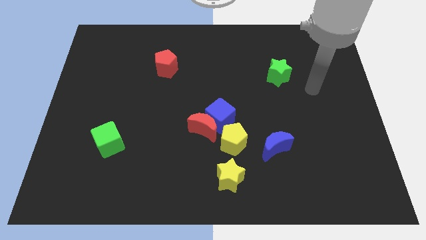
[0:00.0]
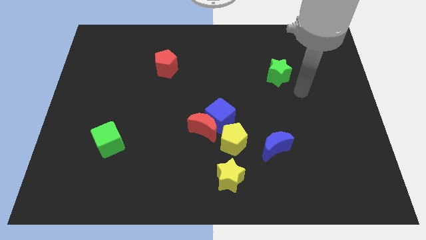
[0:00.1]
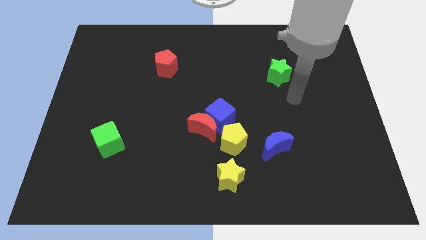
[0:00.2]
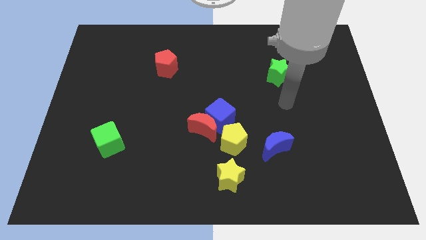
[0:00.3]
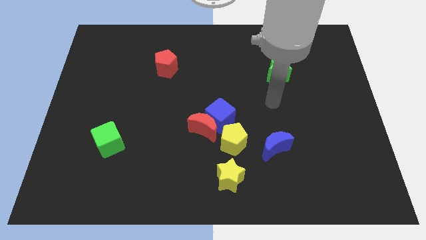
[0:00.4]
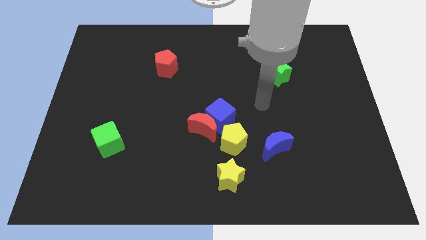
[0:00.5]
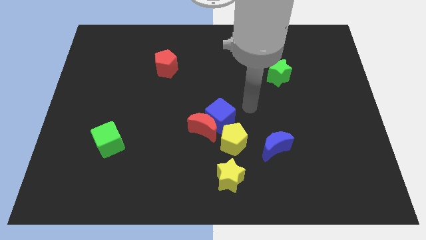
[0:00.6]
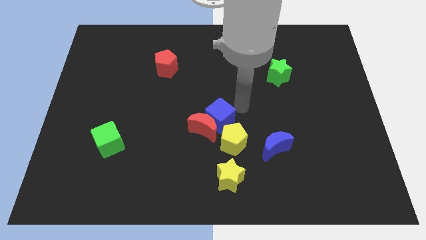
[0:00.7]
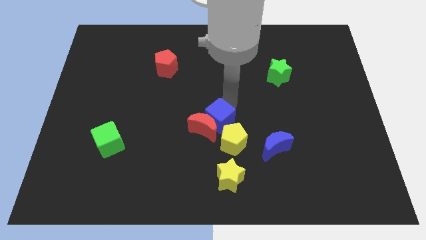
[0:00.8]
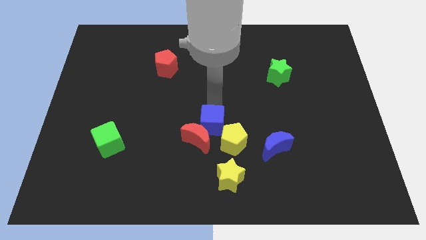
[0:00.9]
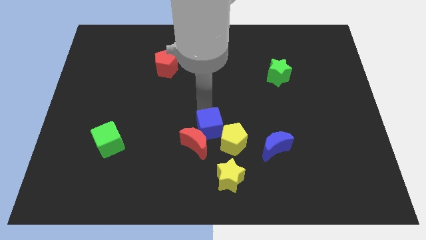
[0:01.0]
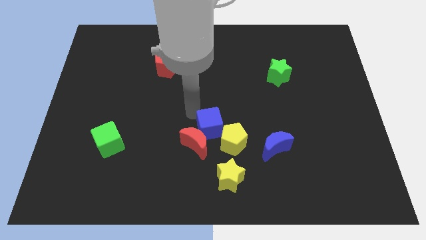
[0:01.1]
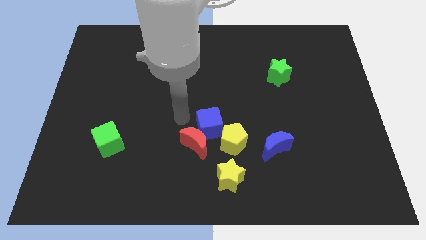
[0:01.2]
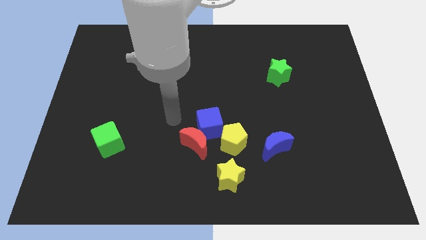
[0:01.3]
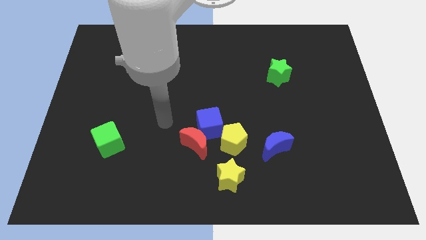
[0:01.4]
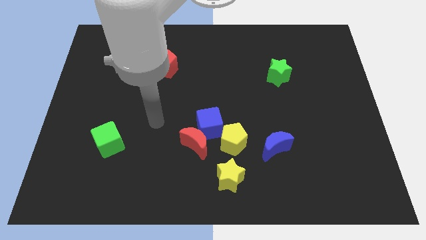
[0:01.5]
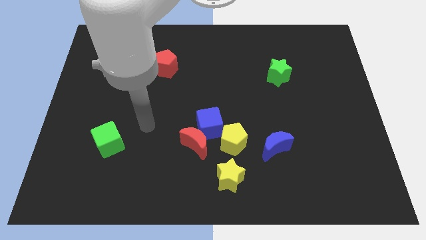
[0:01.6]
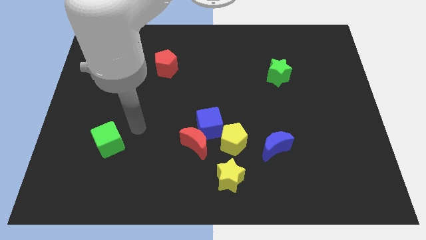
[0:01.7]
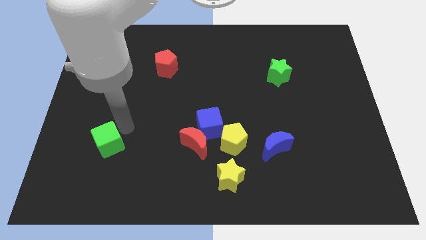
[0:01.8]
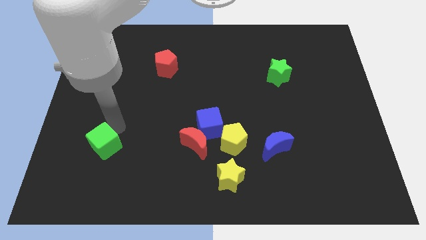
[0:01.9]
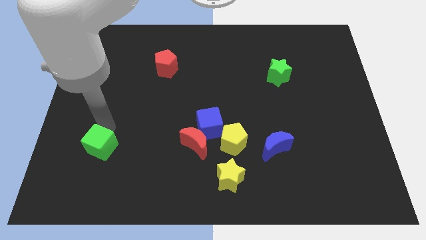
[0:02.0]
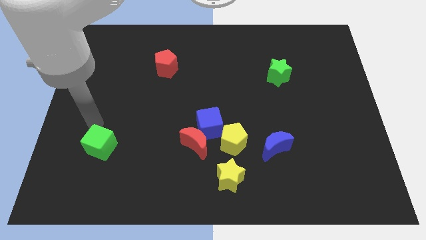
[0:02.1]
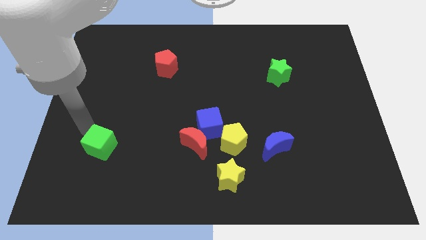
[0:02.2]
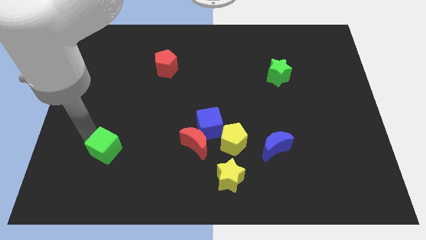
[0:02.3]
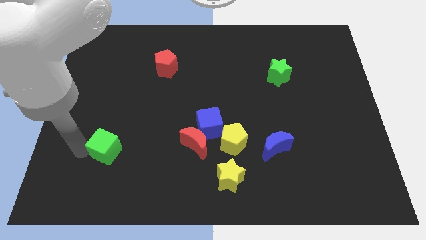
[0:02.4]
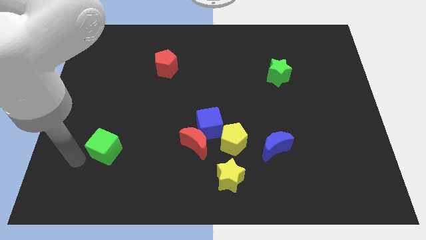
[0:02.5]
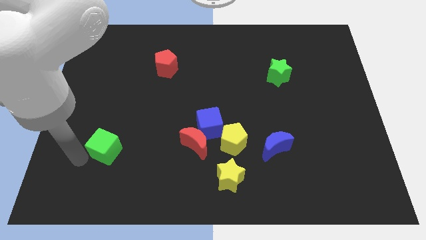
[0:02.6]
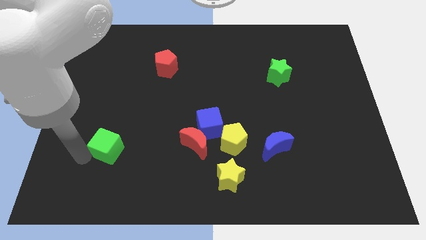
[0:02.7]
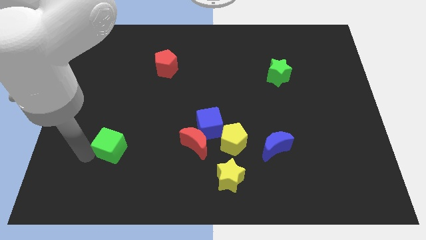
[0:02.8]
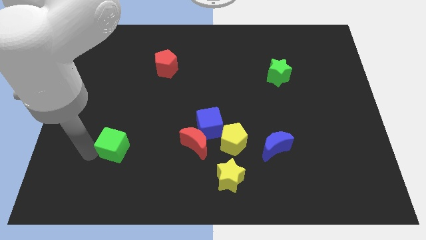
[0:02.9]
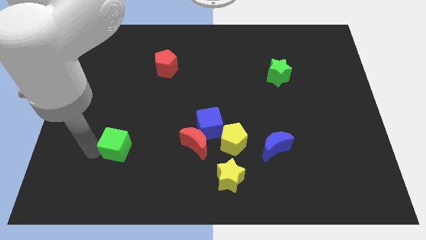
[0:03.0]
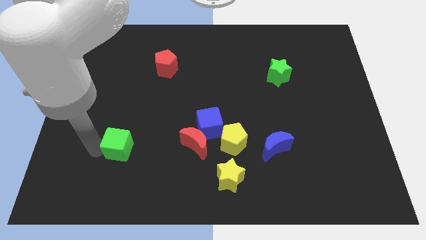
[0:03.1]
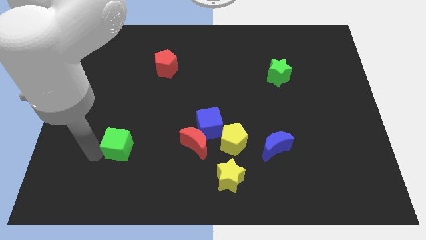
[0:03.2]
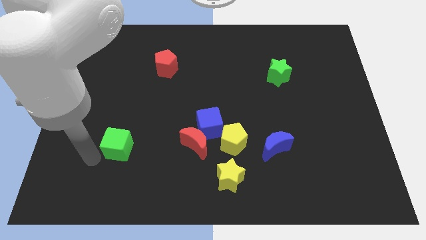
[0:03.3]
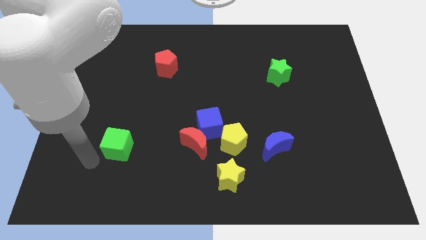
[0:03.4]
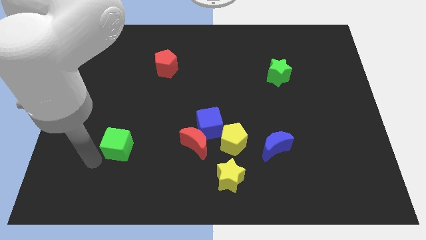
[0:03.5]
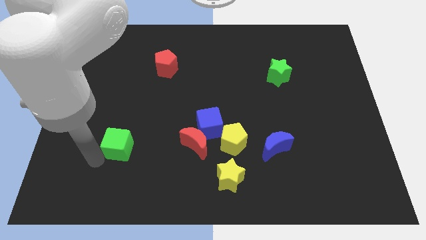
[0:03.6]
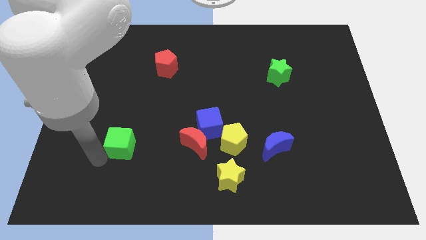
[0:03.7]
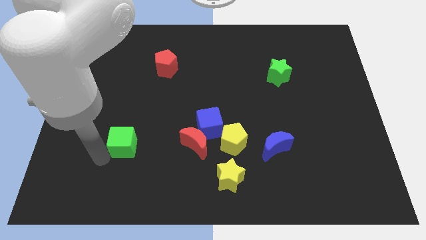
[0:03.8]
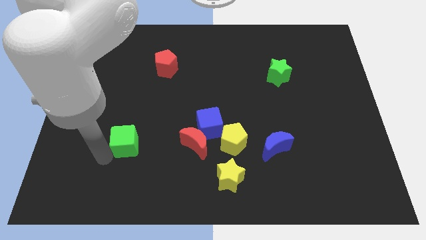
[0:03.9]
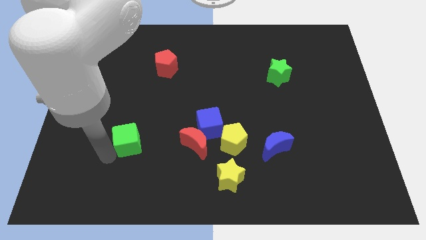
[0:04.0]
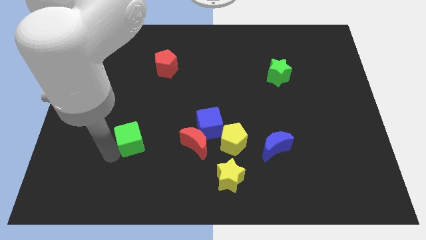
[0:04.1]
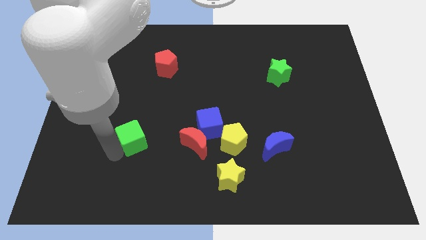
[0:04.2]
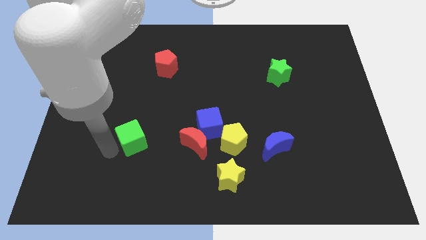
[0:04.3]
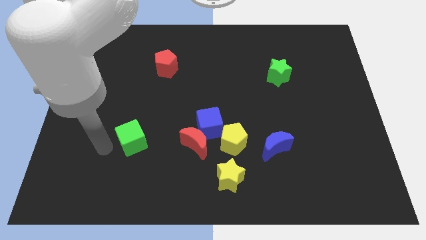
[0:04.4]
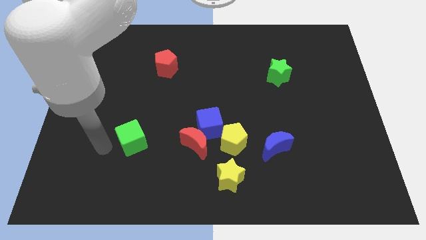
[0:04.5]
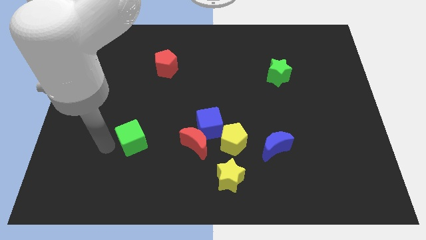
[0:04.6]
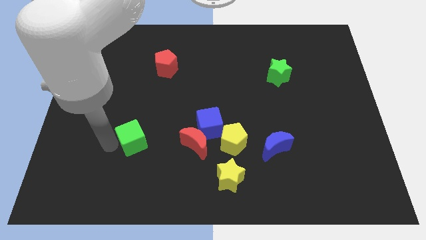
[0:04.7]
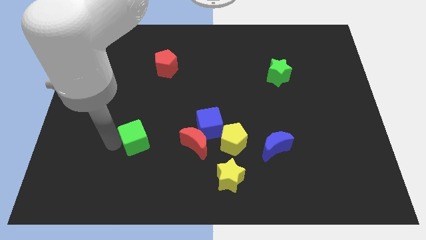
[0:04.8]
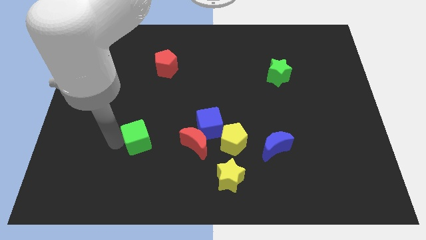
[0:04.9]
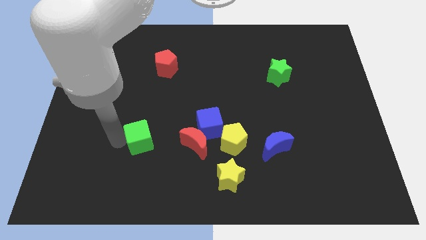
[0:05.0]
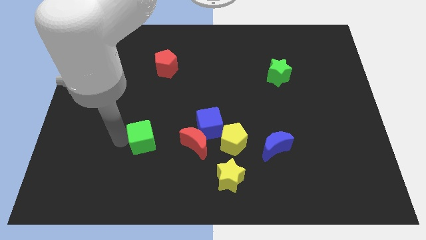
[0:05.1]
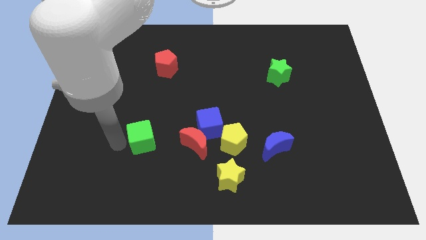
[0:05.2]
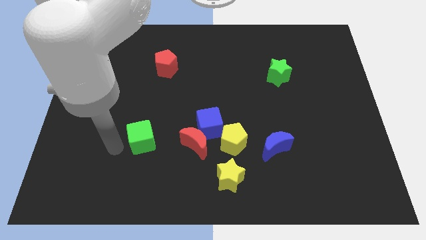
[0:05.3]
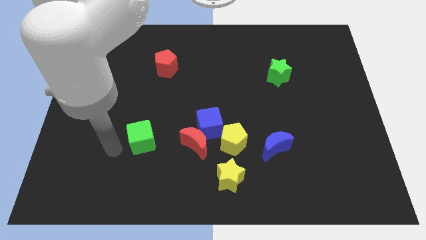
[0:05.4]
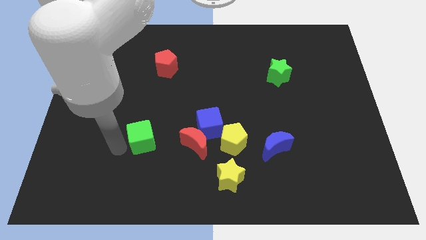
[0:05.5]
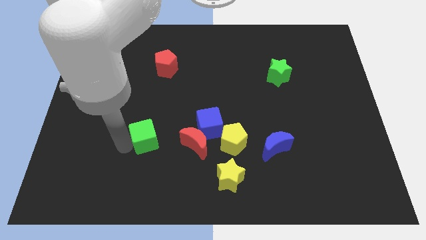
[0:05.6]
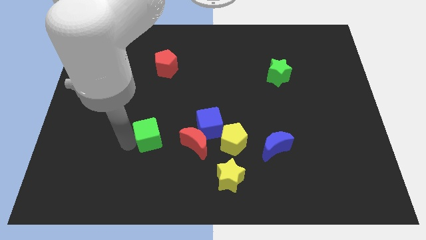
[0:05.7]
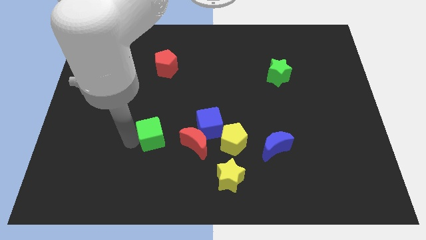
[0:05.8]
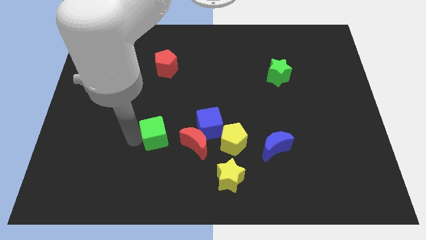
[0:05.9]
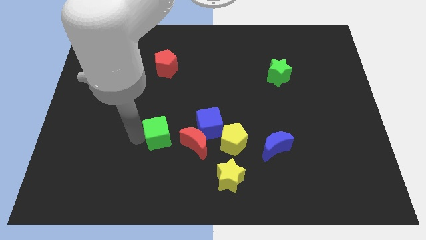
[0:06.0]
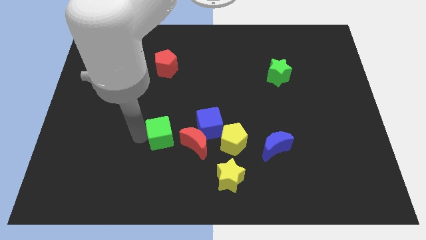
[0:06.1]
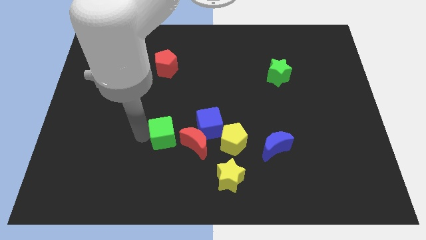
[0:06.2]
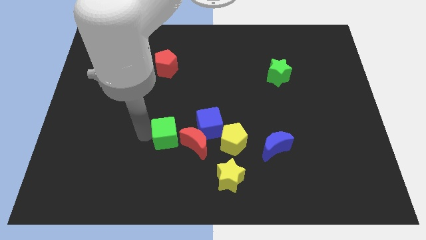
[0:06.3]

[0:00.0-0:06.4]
push the green cube to the bottom left of the blue cube

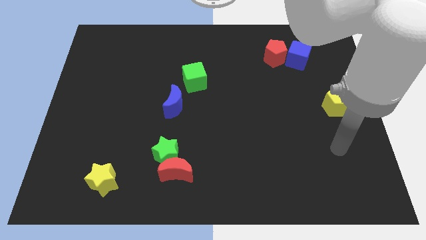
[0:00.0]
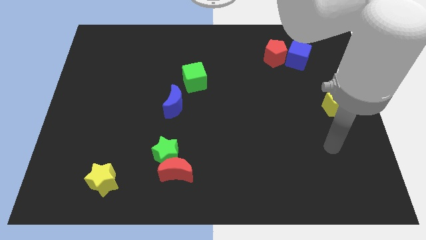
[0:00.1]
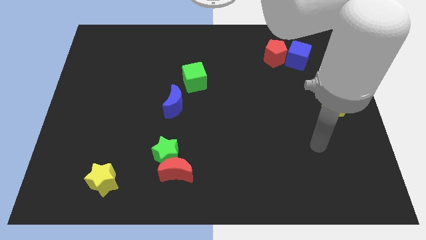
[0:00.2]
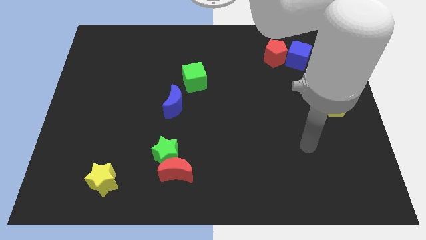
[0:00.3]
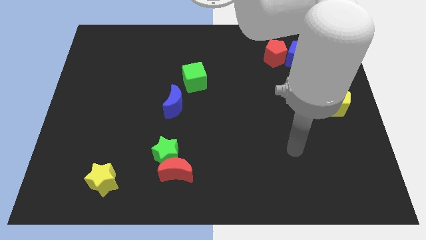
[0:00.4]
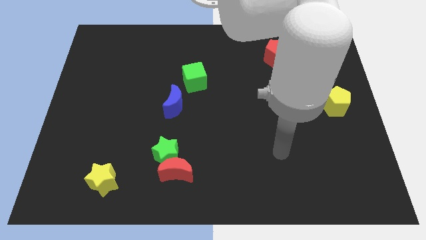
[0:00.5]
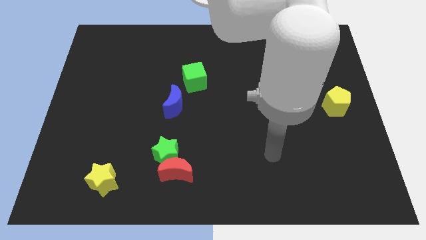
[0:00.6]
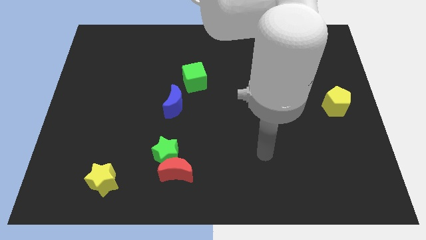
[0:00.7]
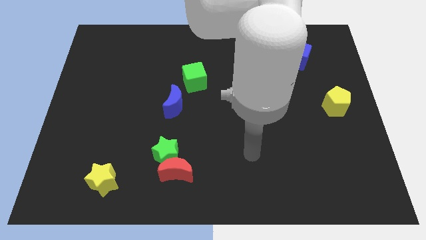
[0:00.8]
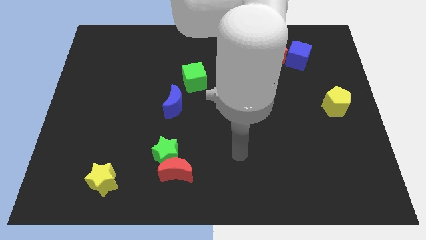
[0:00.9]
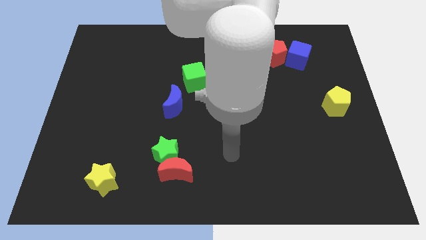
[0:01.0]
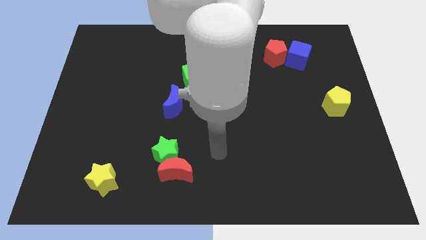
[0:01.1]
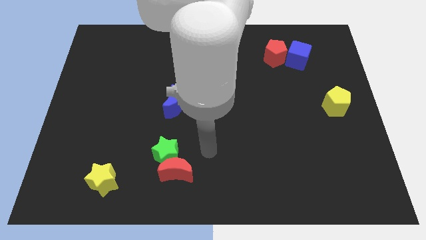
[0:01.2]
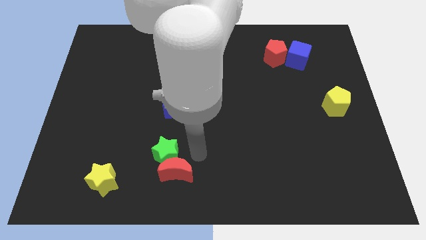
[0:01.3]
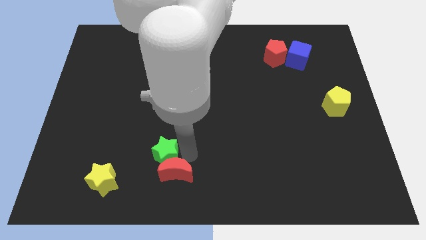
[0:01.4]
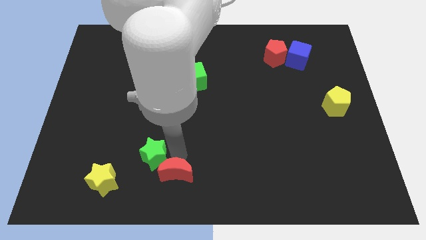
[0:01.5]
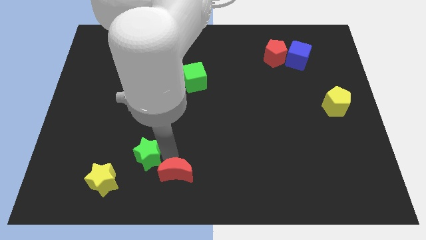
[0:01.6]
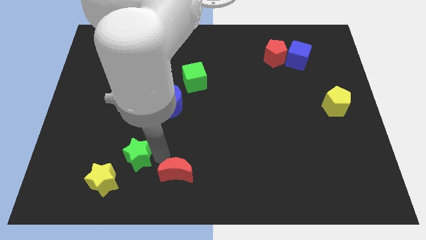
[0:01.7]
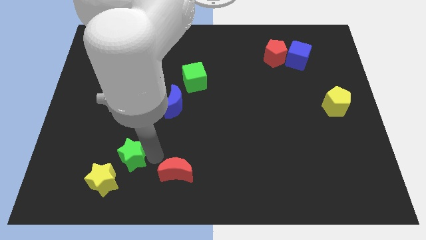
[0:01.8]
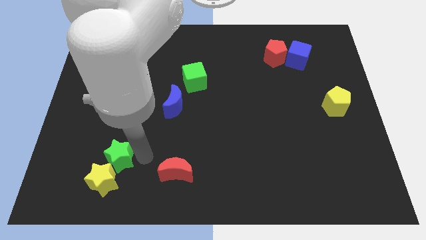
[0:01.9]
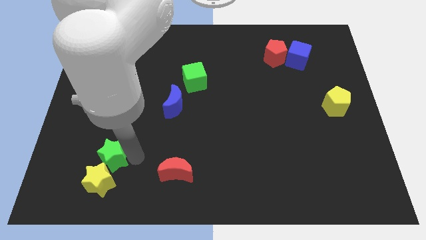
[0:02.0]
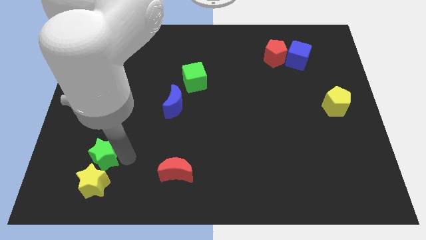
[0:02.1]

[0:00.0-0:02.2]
slide the green star to the top left of the yellow star
